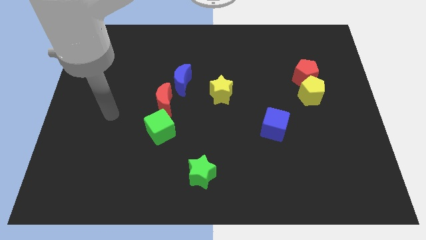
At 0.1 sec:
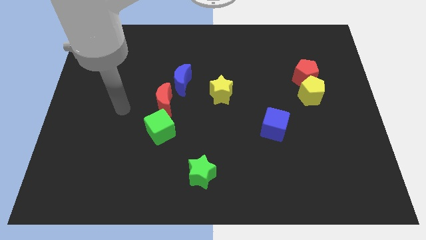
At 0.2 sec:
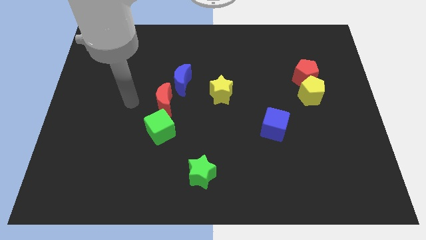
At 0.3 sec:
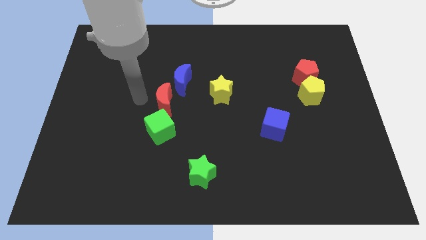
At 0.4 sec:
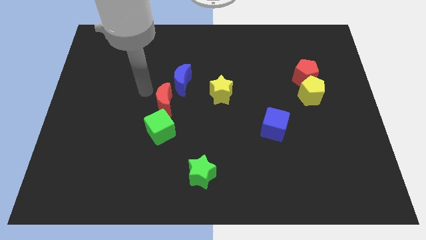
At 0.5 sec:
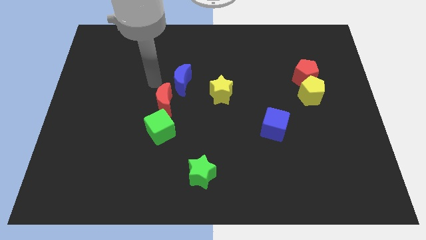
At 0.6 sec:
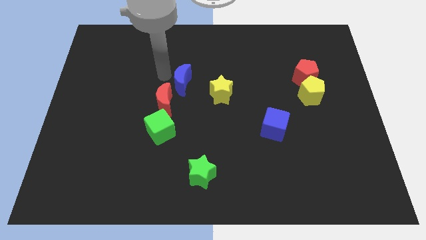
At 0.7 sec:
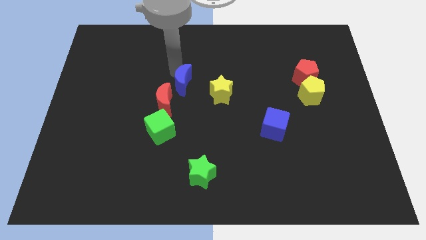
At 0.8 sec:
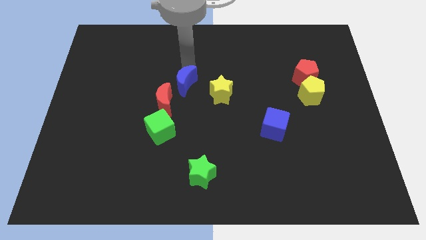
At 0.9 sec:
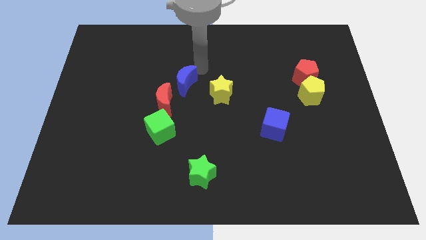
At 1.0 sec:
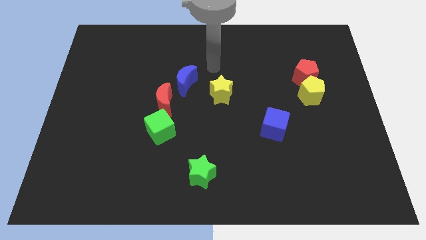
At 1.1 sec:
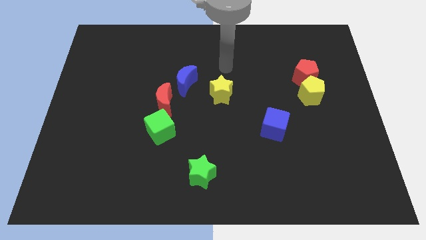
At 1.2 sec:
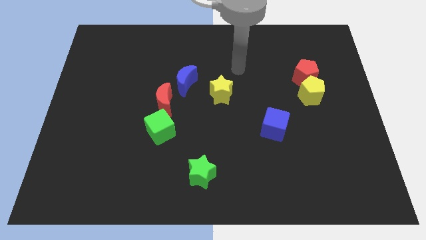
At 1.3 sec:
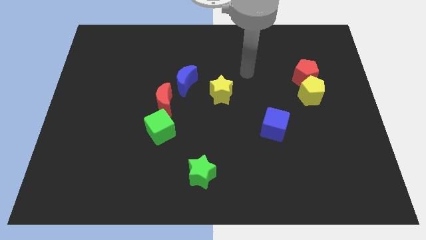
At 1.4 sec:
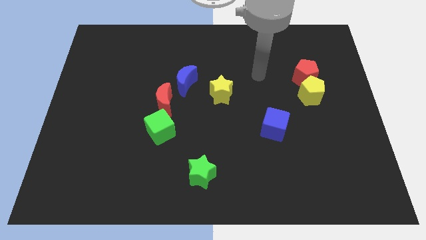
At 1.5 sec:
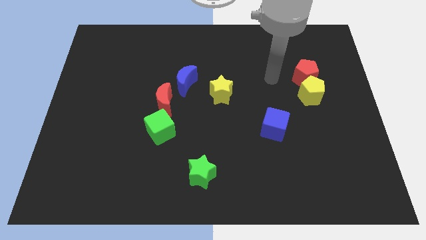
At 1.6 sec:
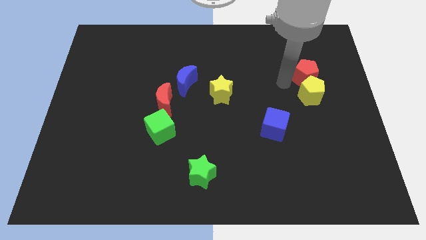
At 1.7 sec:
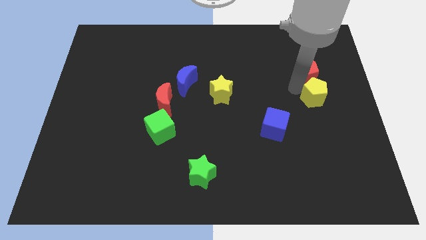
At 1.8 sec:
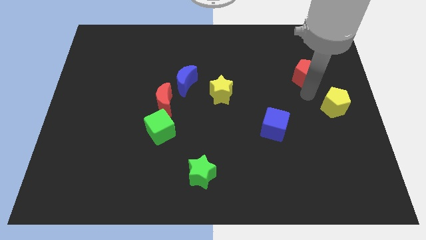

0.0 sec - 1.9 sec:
pull the red pentagon apart from the yellow pentagon

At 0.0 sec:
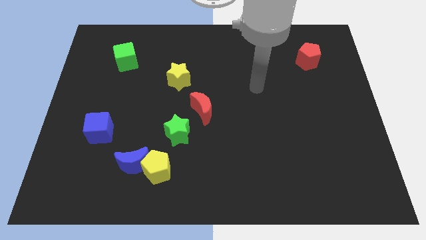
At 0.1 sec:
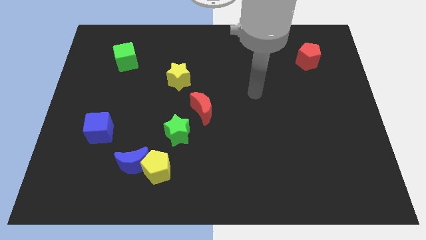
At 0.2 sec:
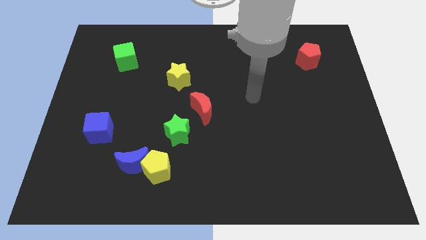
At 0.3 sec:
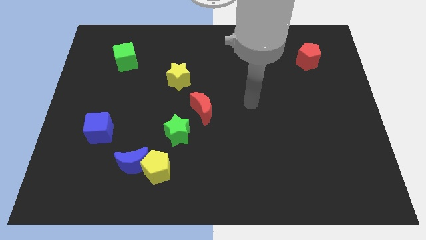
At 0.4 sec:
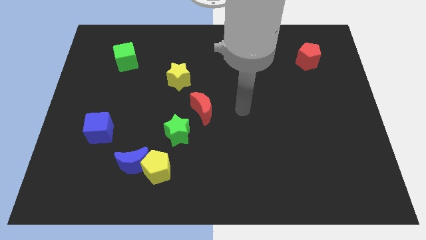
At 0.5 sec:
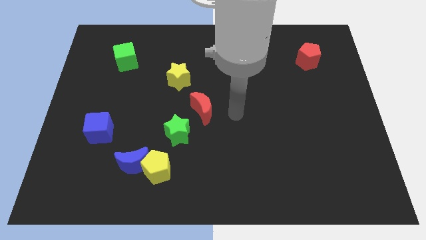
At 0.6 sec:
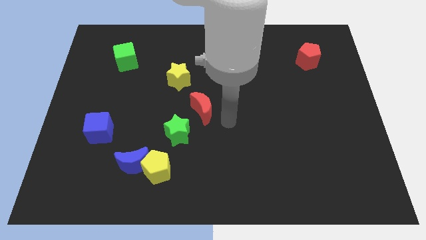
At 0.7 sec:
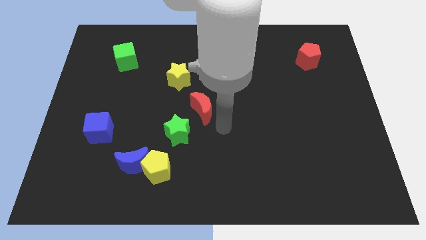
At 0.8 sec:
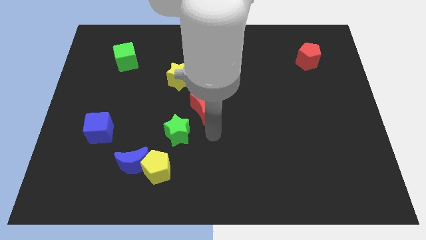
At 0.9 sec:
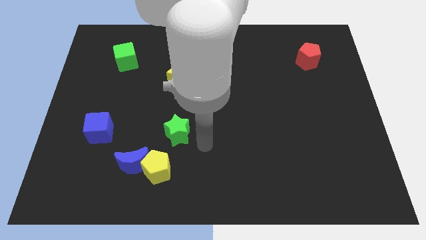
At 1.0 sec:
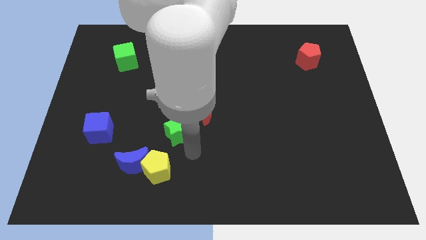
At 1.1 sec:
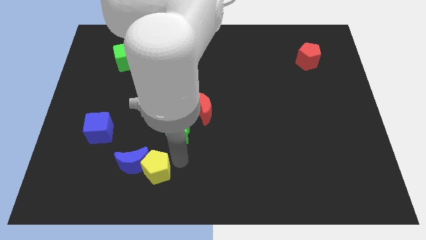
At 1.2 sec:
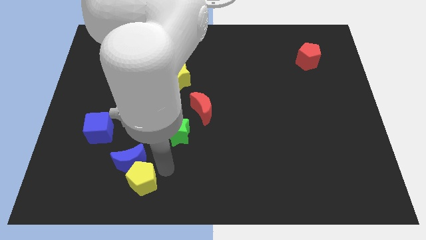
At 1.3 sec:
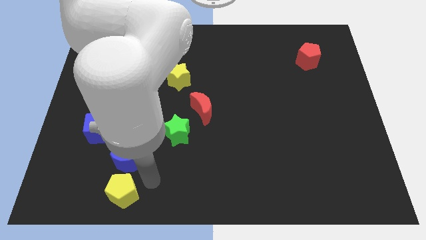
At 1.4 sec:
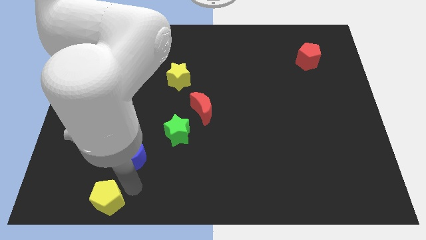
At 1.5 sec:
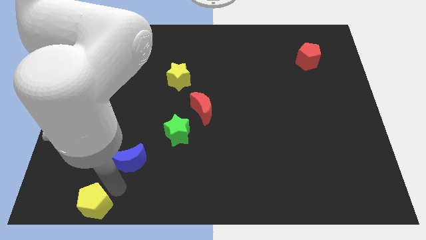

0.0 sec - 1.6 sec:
pull the blue moon apart from the yellow pentagon

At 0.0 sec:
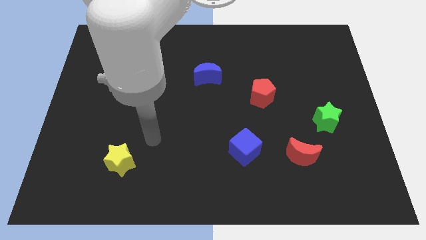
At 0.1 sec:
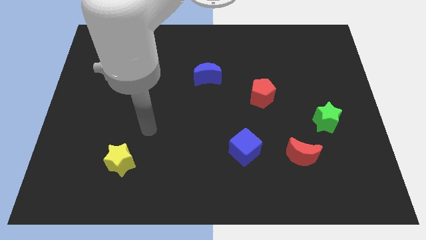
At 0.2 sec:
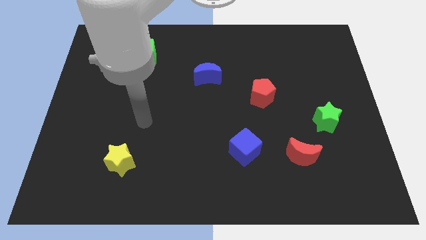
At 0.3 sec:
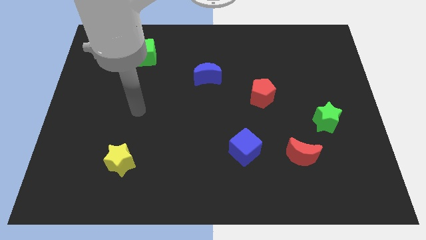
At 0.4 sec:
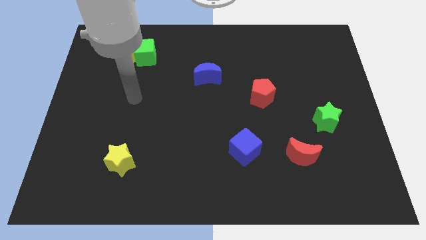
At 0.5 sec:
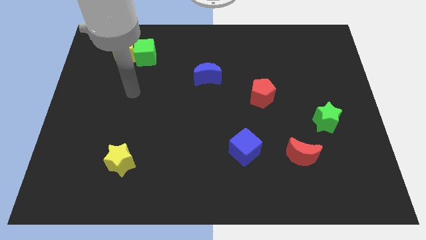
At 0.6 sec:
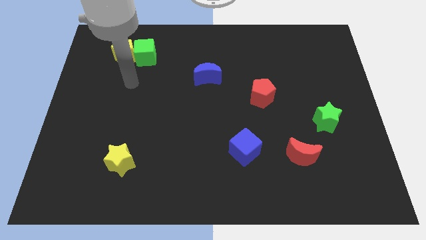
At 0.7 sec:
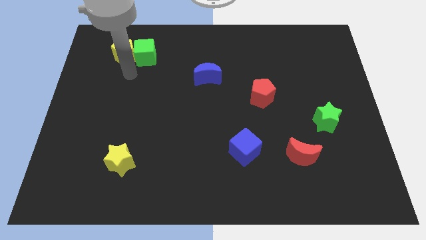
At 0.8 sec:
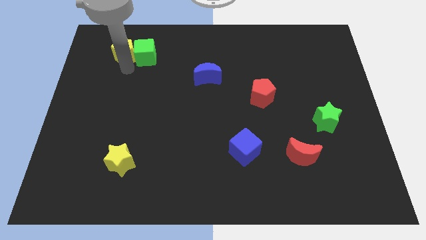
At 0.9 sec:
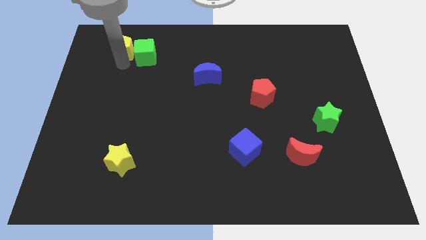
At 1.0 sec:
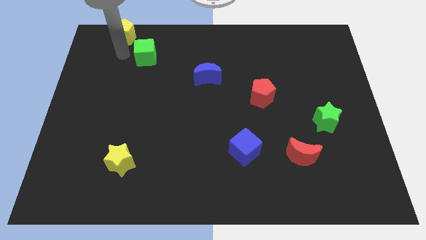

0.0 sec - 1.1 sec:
pull the green cube apart from the yellow pentagon

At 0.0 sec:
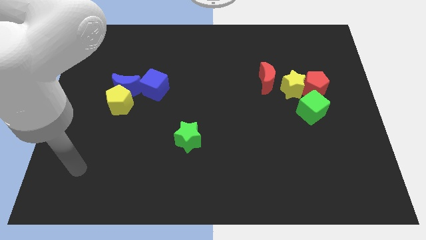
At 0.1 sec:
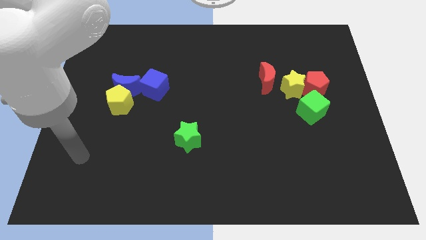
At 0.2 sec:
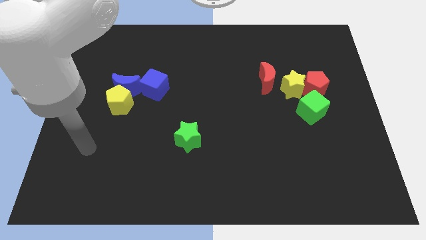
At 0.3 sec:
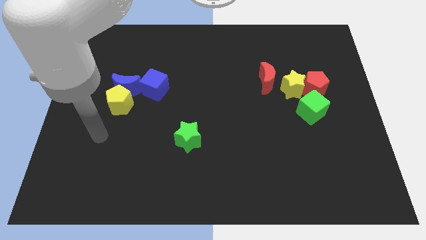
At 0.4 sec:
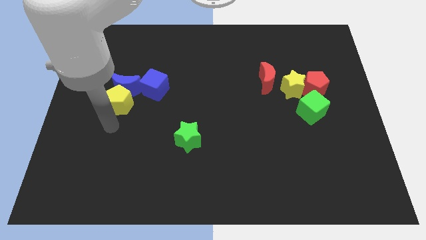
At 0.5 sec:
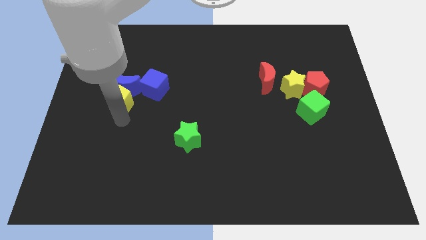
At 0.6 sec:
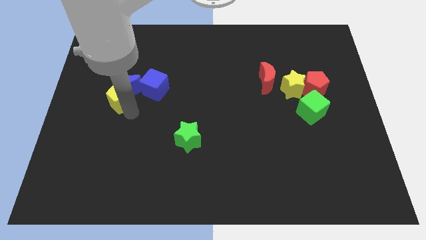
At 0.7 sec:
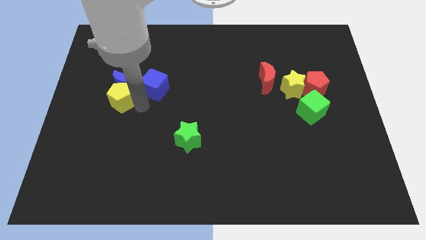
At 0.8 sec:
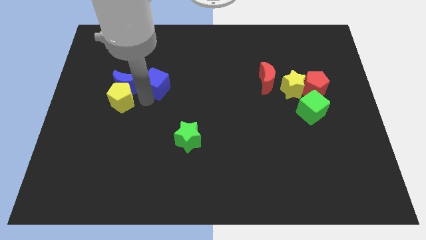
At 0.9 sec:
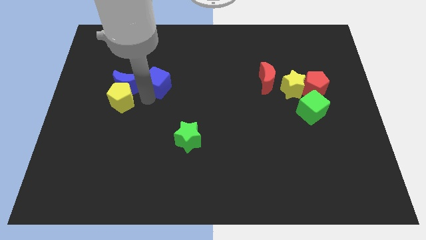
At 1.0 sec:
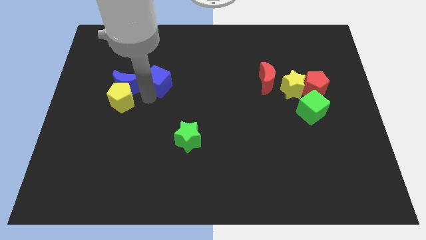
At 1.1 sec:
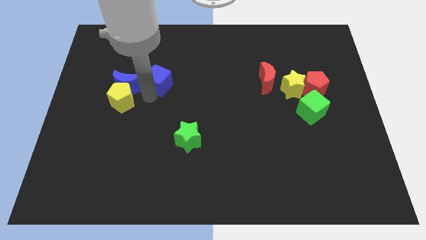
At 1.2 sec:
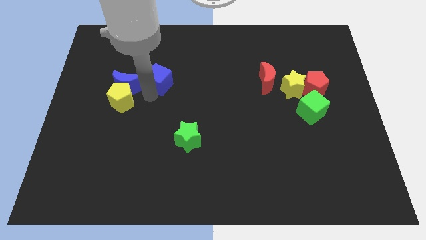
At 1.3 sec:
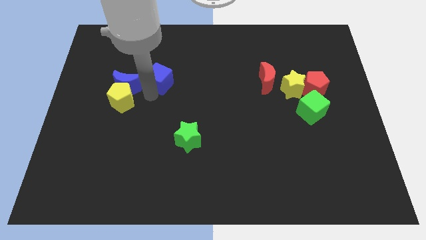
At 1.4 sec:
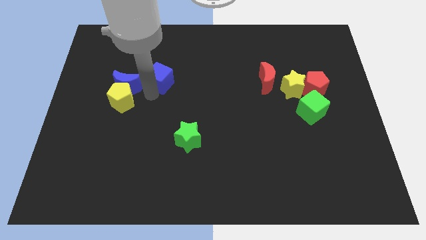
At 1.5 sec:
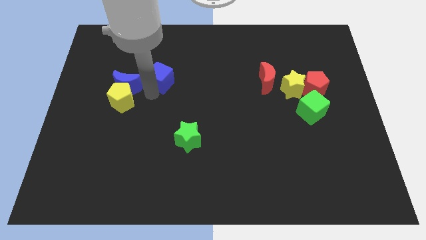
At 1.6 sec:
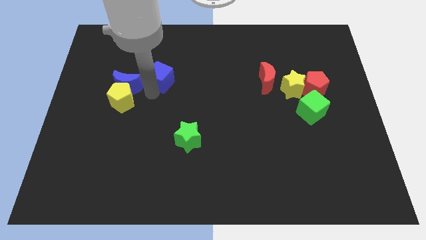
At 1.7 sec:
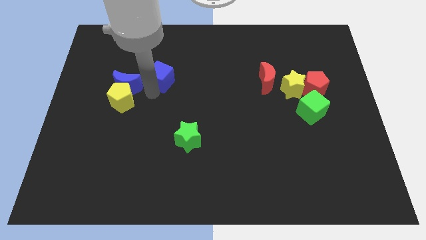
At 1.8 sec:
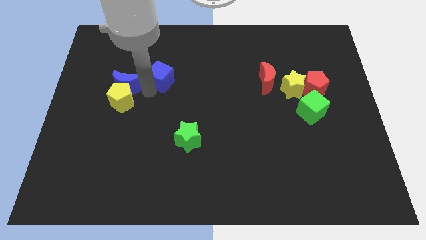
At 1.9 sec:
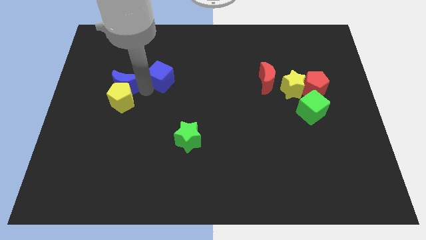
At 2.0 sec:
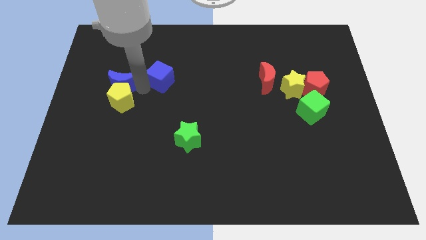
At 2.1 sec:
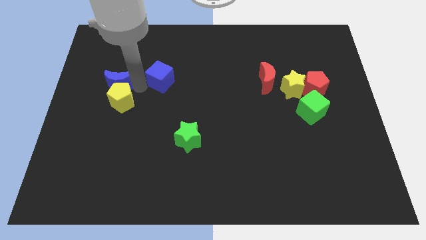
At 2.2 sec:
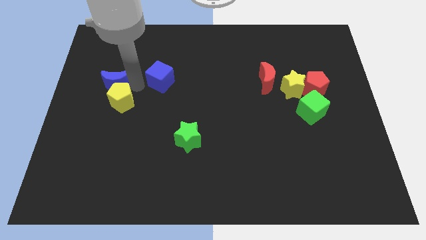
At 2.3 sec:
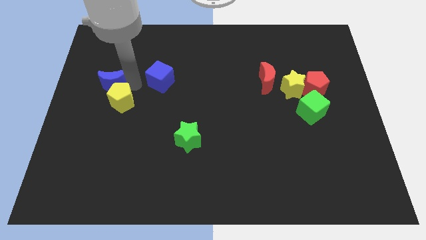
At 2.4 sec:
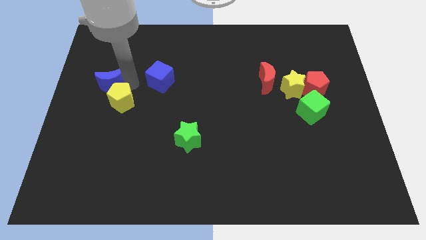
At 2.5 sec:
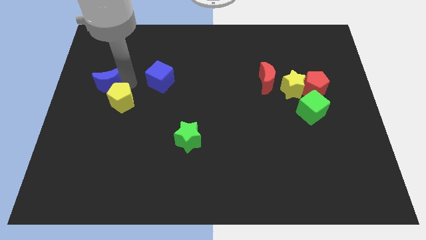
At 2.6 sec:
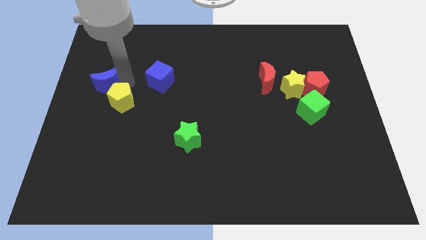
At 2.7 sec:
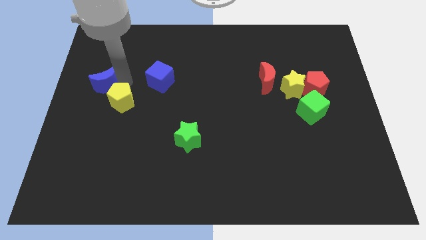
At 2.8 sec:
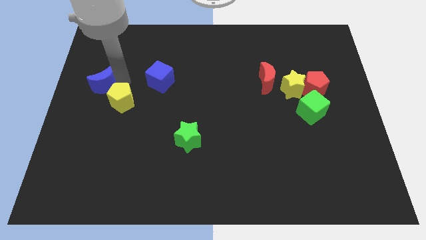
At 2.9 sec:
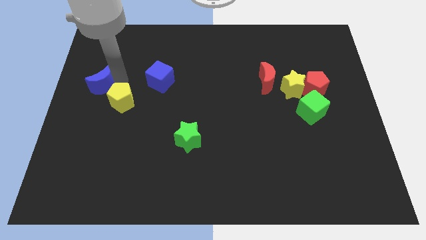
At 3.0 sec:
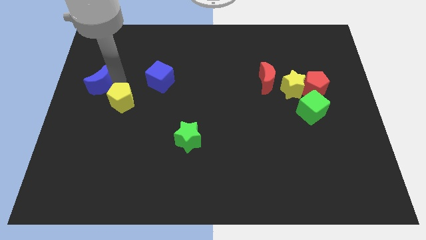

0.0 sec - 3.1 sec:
move the blue moon away from the yellow pentagon and blue cube

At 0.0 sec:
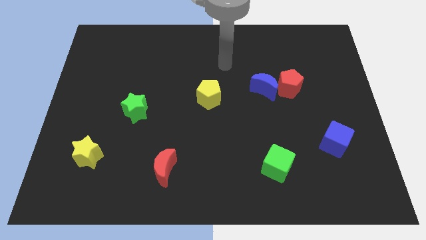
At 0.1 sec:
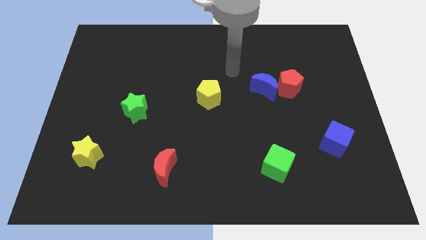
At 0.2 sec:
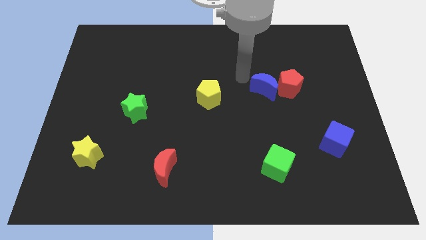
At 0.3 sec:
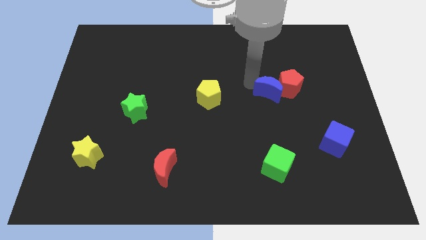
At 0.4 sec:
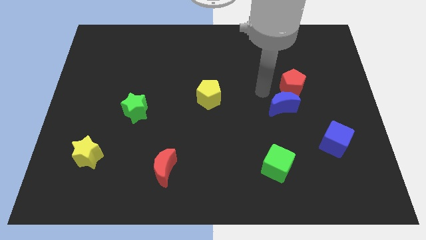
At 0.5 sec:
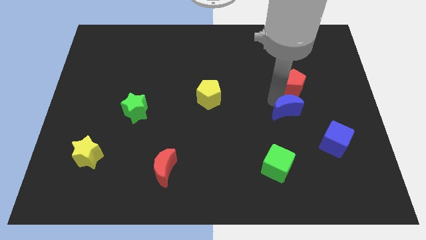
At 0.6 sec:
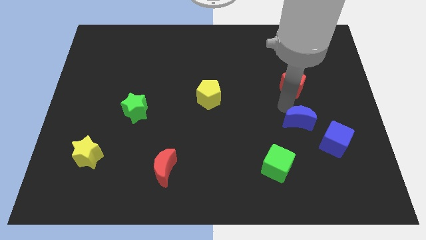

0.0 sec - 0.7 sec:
move the red pentagon away from the blue moon

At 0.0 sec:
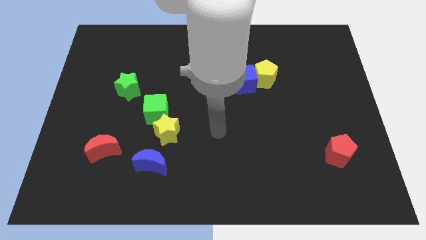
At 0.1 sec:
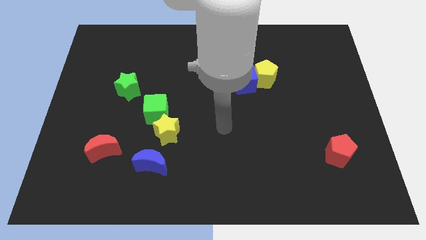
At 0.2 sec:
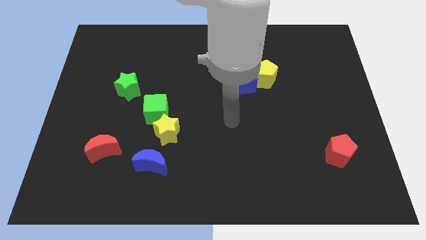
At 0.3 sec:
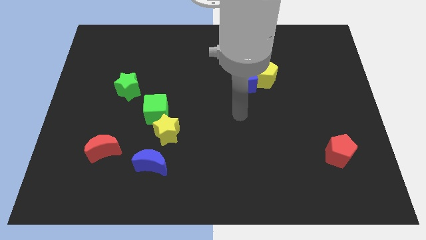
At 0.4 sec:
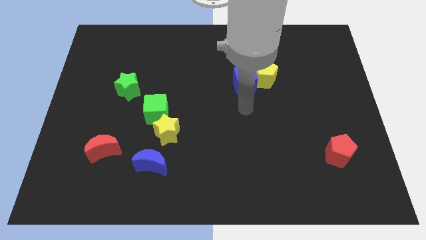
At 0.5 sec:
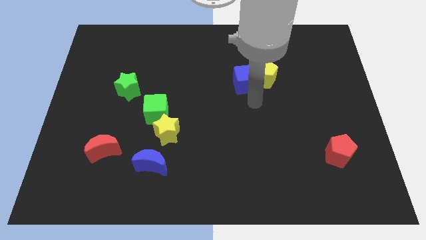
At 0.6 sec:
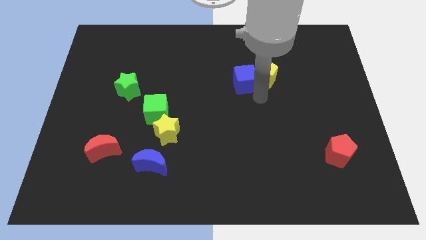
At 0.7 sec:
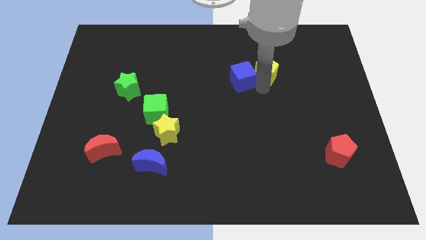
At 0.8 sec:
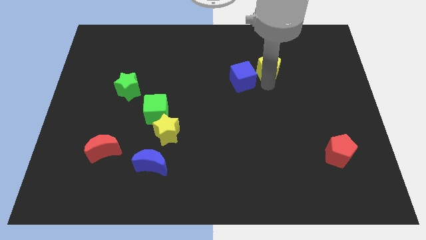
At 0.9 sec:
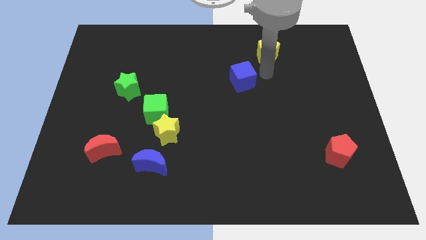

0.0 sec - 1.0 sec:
separate the blue cube from the yellow pentagon
